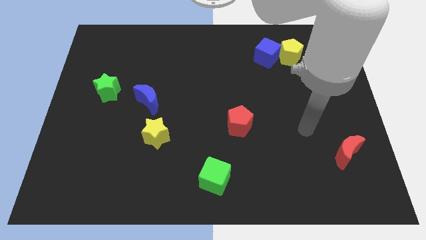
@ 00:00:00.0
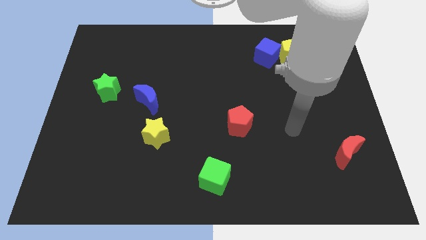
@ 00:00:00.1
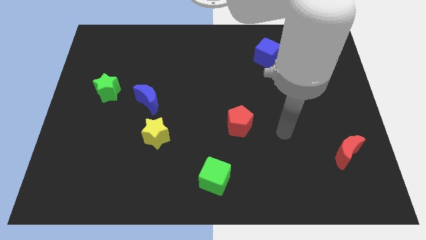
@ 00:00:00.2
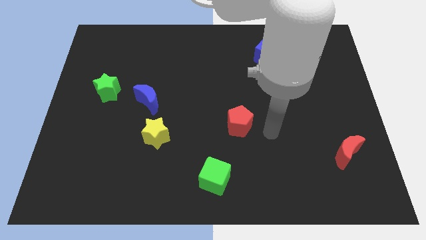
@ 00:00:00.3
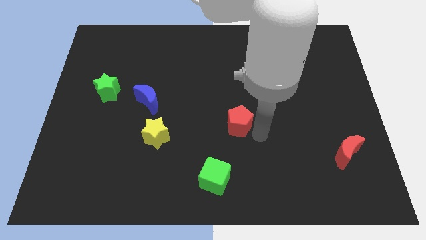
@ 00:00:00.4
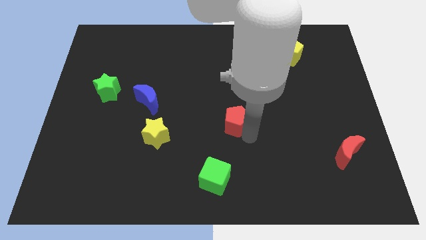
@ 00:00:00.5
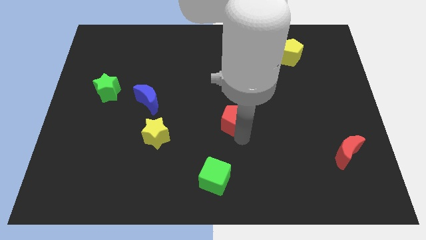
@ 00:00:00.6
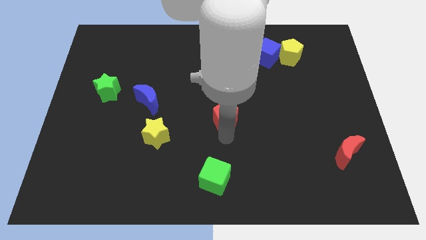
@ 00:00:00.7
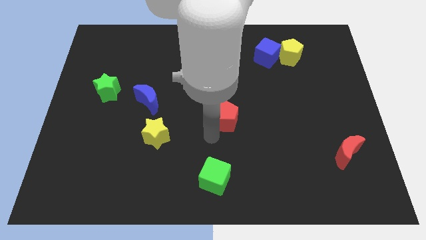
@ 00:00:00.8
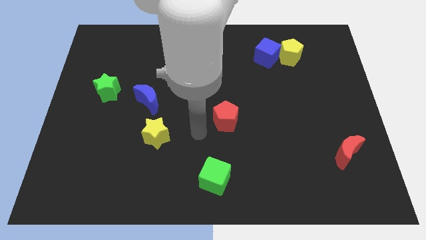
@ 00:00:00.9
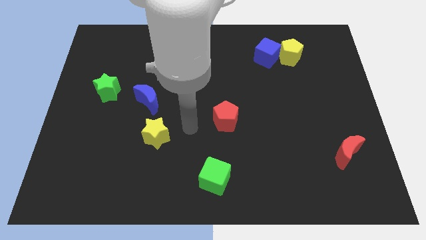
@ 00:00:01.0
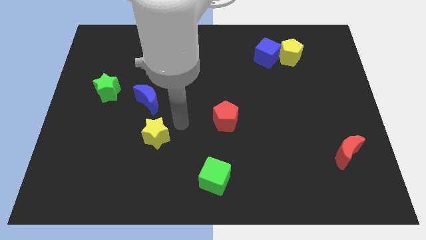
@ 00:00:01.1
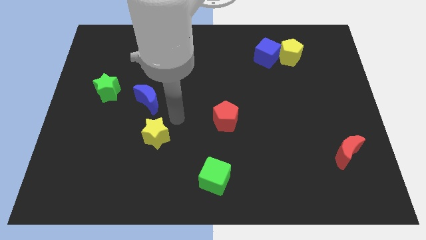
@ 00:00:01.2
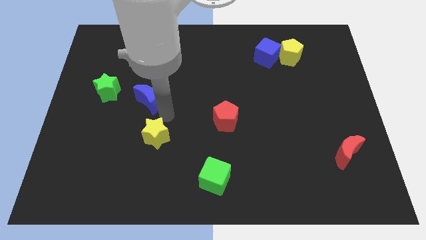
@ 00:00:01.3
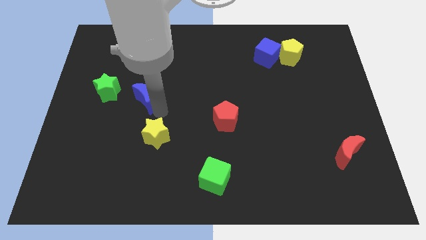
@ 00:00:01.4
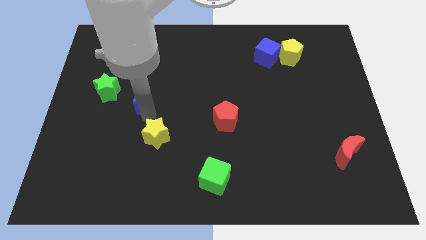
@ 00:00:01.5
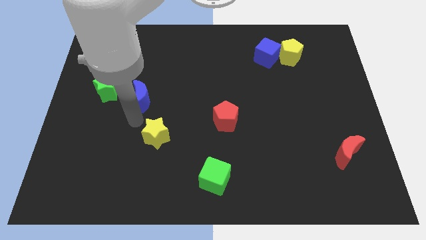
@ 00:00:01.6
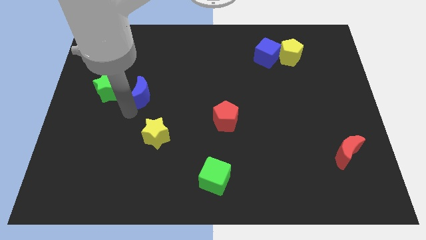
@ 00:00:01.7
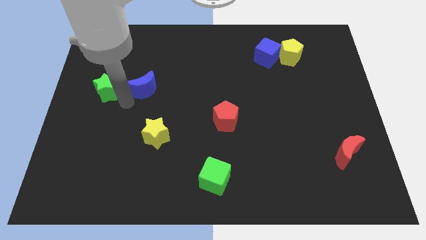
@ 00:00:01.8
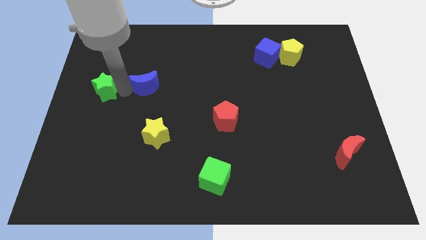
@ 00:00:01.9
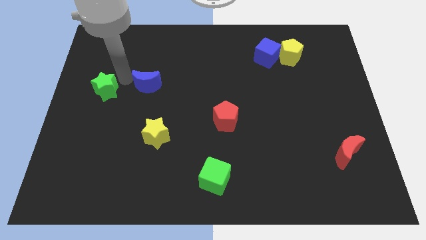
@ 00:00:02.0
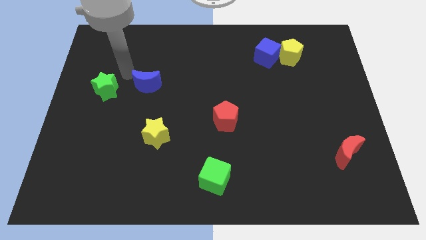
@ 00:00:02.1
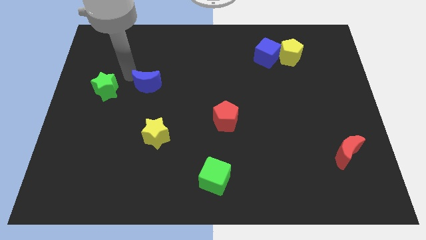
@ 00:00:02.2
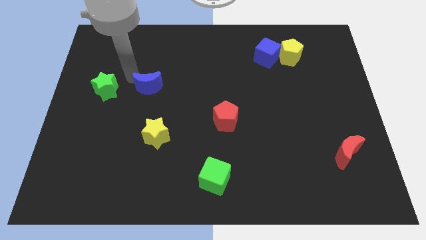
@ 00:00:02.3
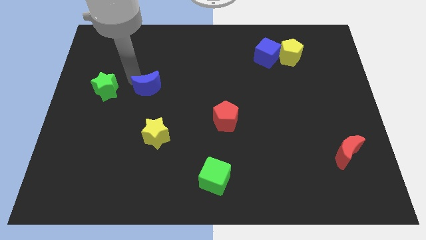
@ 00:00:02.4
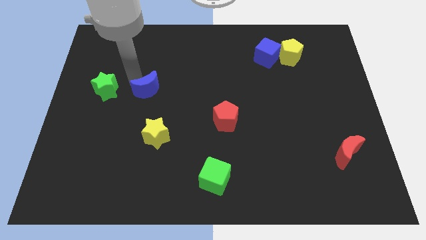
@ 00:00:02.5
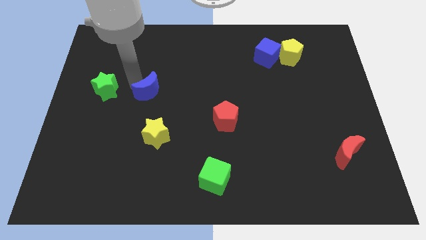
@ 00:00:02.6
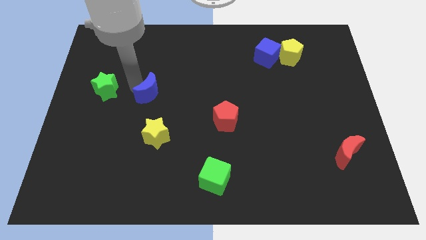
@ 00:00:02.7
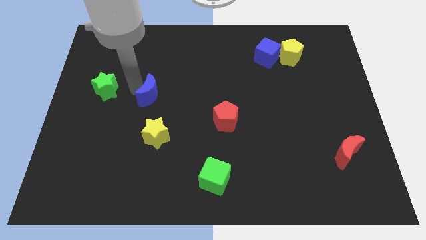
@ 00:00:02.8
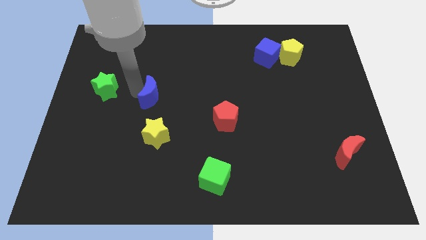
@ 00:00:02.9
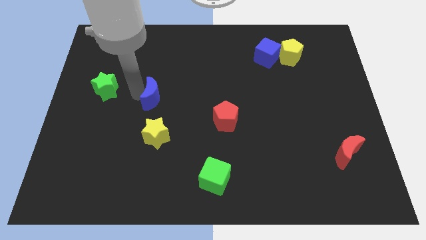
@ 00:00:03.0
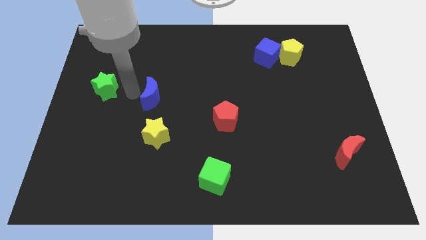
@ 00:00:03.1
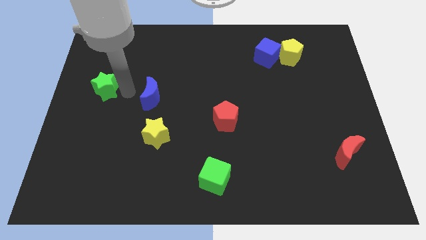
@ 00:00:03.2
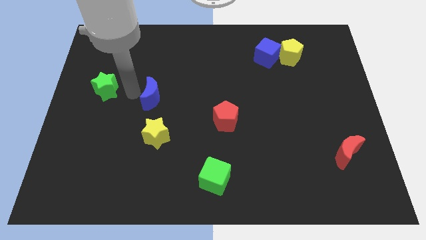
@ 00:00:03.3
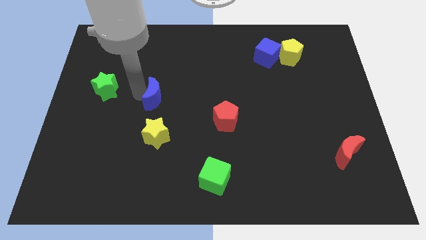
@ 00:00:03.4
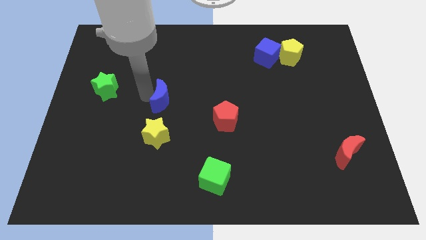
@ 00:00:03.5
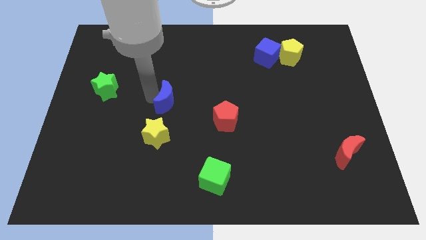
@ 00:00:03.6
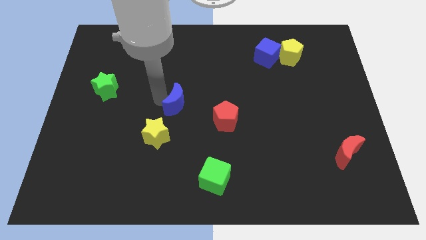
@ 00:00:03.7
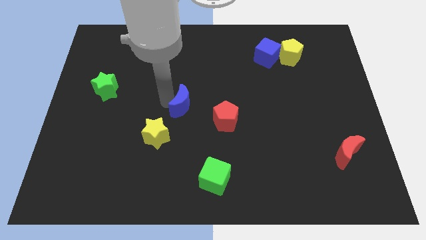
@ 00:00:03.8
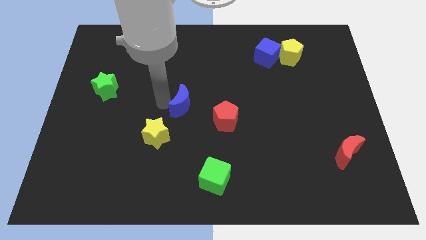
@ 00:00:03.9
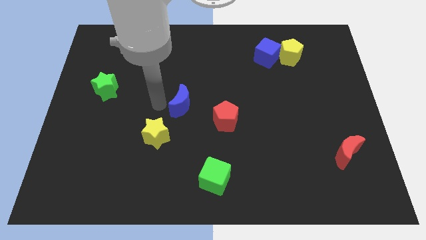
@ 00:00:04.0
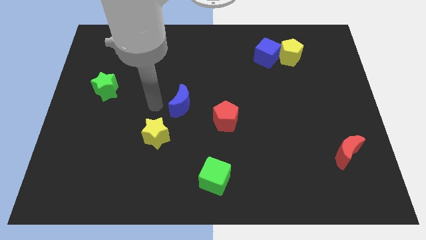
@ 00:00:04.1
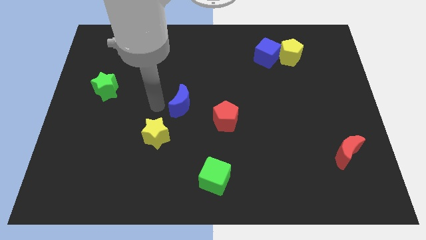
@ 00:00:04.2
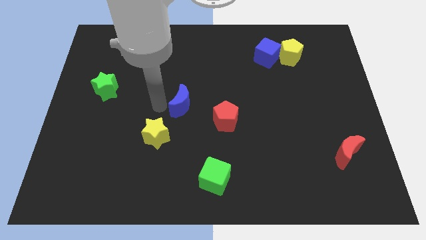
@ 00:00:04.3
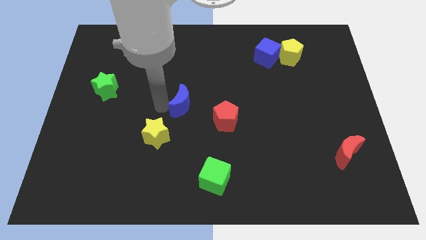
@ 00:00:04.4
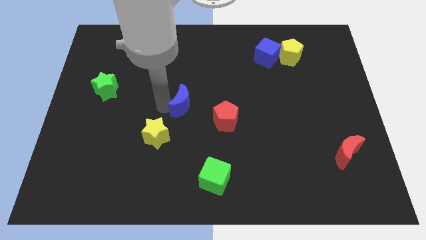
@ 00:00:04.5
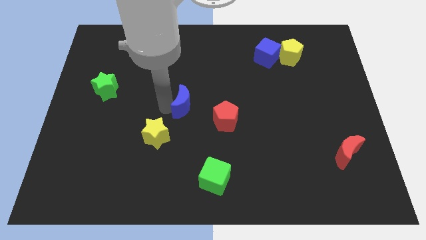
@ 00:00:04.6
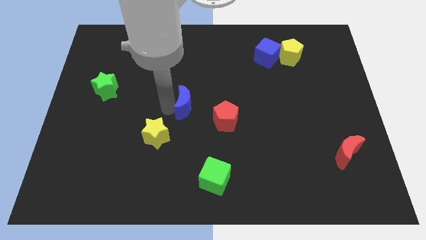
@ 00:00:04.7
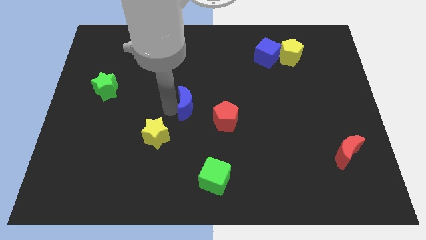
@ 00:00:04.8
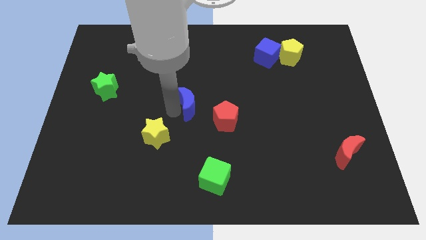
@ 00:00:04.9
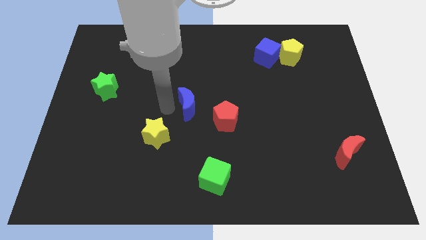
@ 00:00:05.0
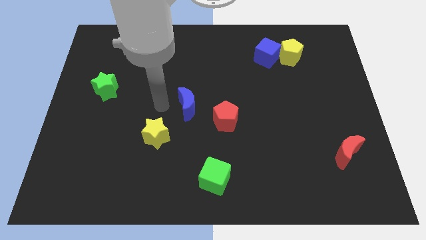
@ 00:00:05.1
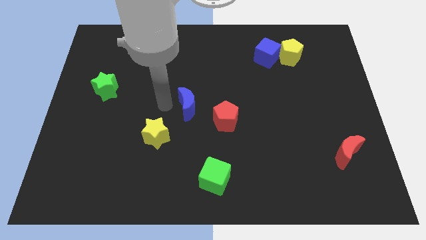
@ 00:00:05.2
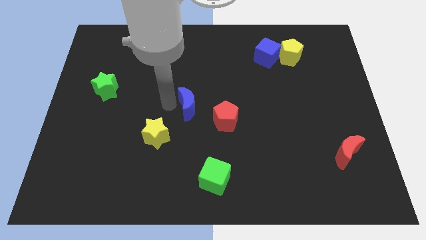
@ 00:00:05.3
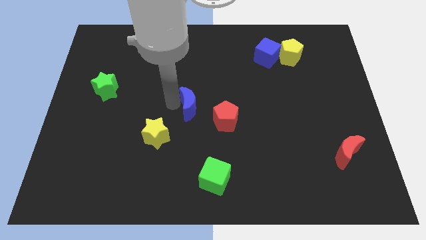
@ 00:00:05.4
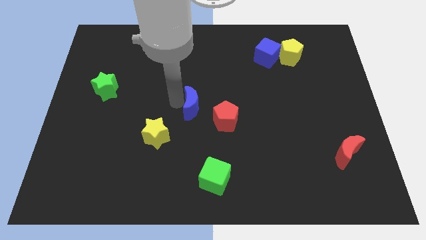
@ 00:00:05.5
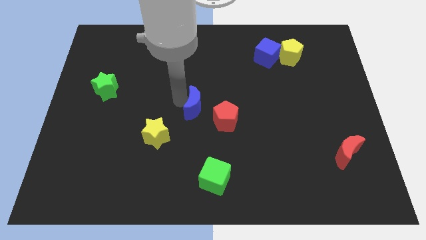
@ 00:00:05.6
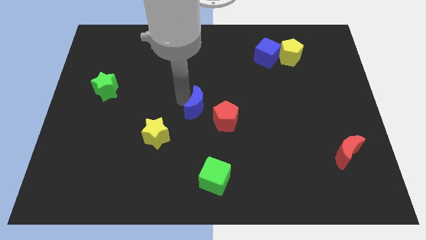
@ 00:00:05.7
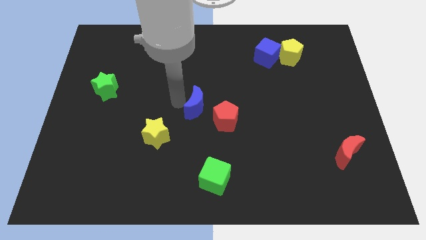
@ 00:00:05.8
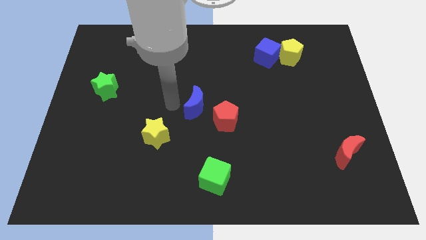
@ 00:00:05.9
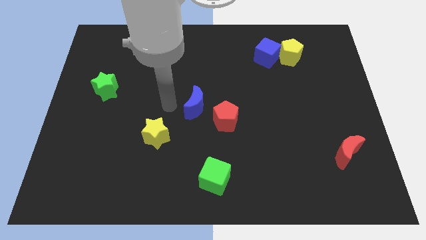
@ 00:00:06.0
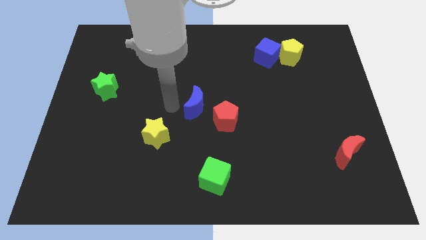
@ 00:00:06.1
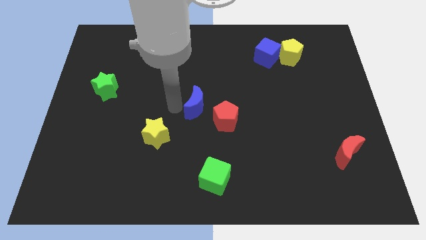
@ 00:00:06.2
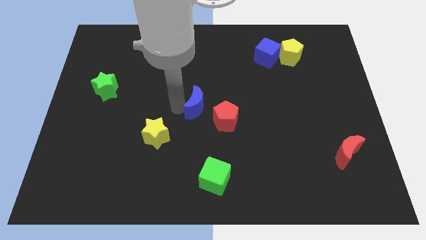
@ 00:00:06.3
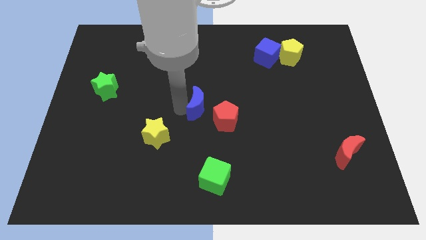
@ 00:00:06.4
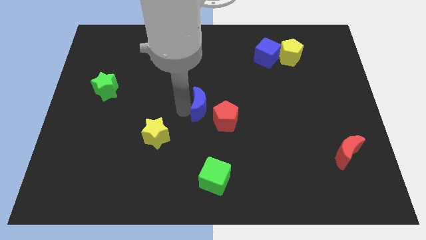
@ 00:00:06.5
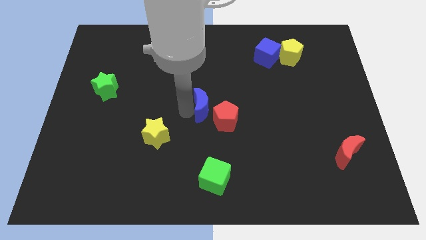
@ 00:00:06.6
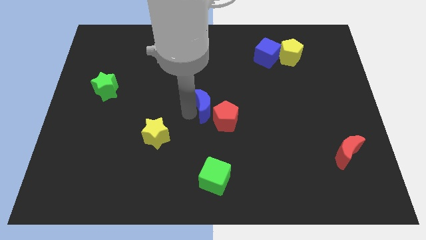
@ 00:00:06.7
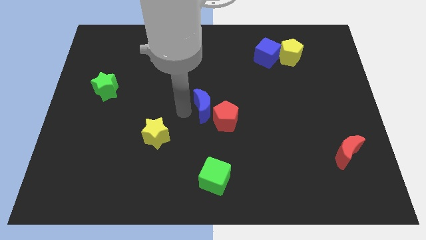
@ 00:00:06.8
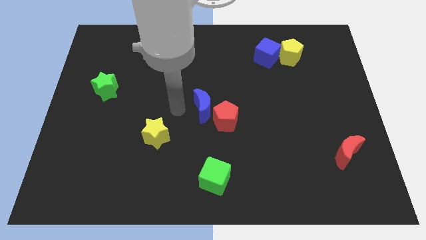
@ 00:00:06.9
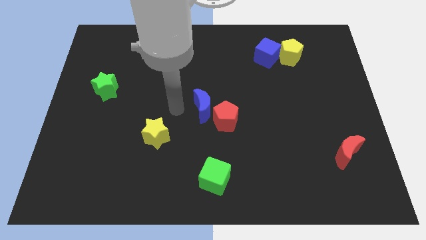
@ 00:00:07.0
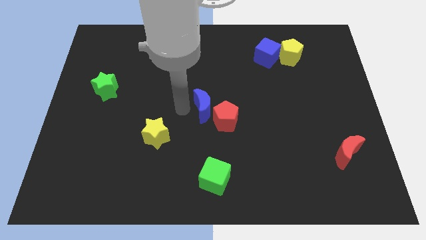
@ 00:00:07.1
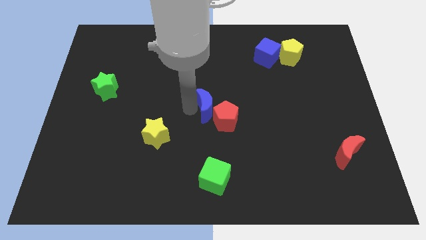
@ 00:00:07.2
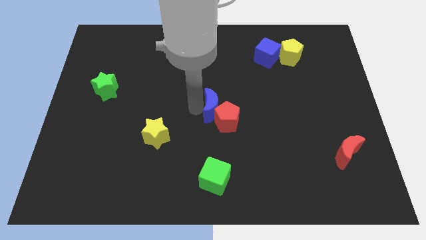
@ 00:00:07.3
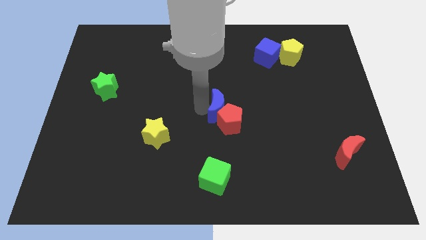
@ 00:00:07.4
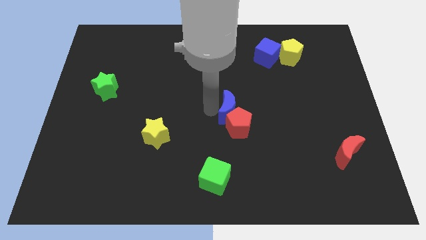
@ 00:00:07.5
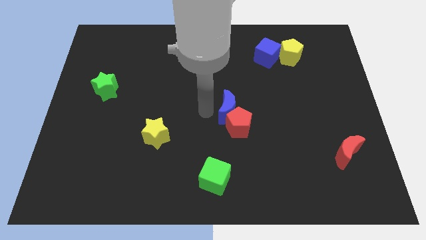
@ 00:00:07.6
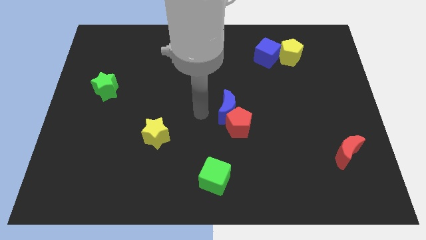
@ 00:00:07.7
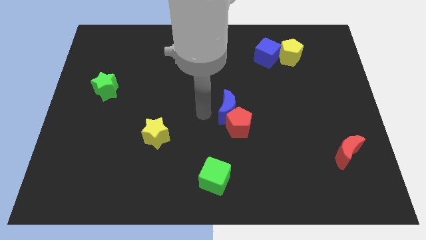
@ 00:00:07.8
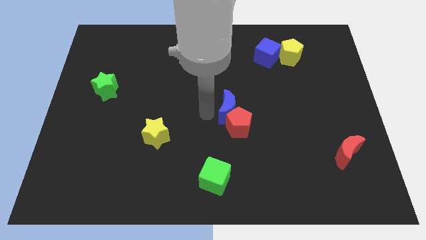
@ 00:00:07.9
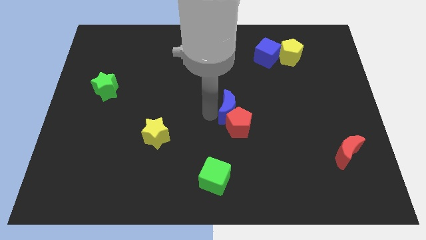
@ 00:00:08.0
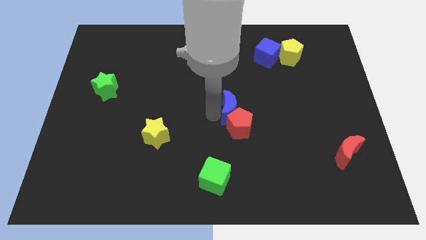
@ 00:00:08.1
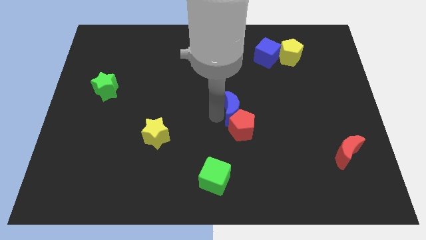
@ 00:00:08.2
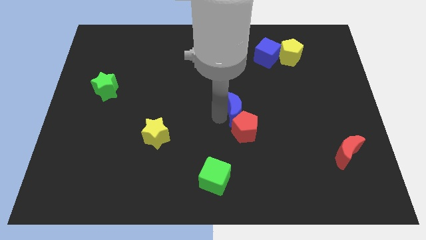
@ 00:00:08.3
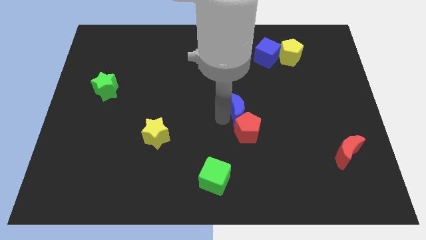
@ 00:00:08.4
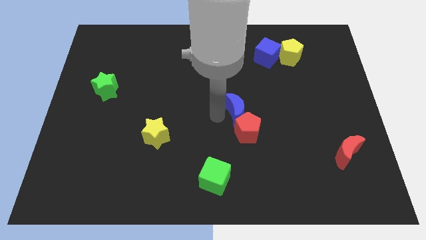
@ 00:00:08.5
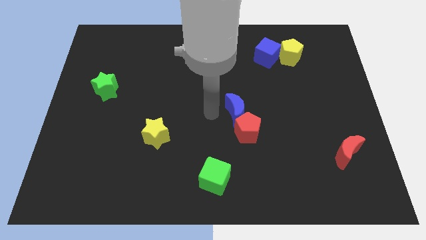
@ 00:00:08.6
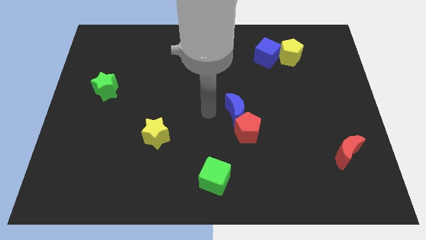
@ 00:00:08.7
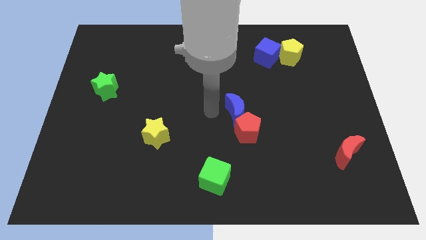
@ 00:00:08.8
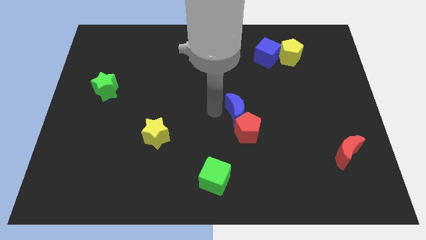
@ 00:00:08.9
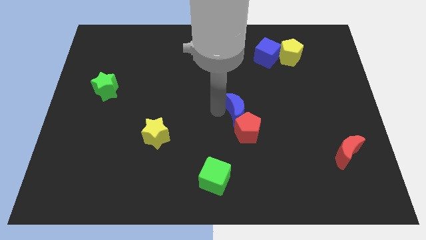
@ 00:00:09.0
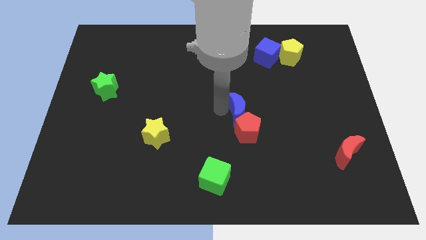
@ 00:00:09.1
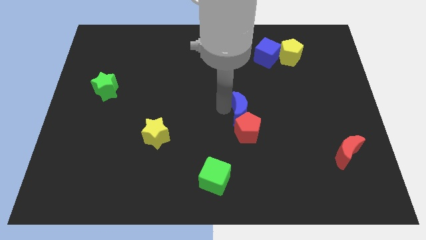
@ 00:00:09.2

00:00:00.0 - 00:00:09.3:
push the blue moon diagonally up and to the right of the red pentagon
